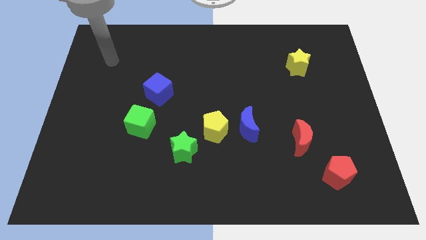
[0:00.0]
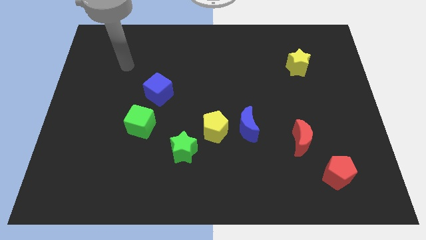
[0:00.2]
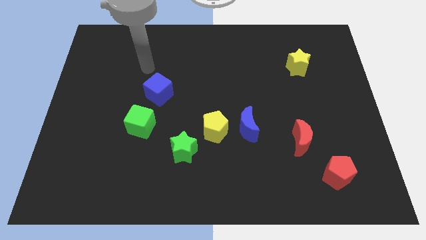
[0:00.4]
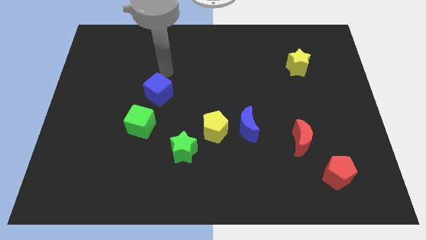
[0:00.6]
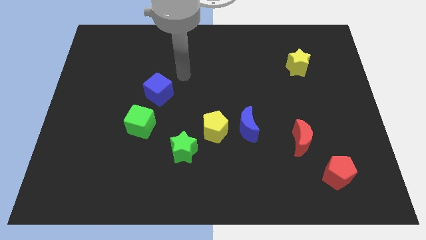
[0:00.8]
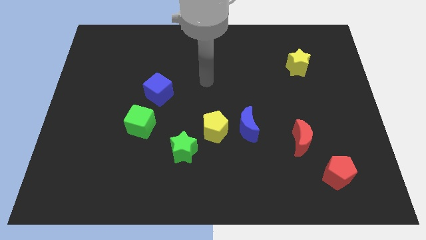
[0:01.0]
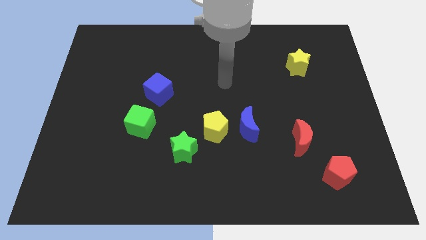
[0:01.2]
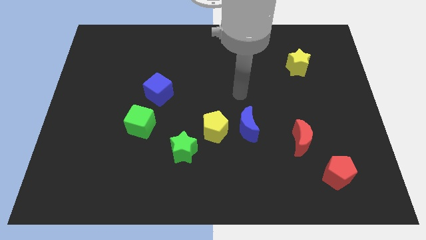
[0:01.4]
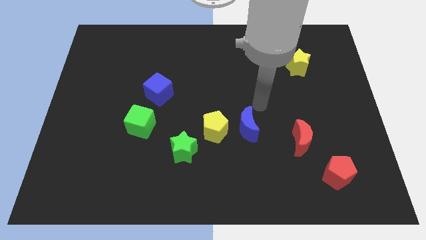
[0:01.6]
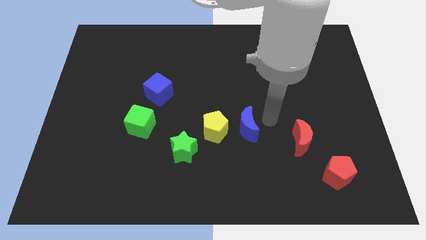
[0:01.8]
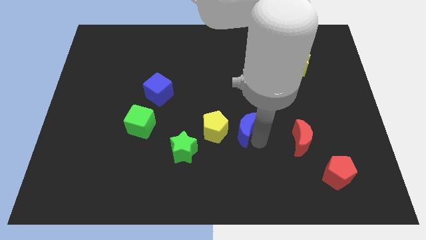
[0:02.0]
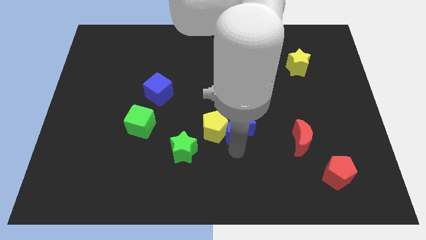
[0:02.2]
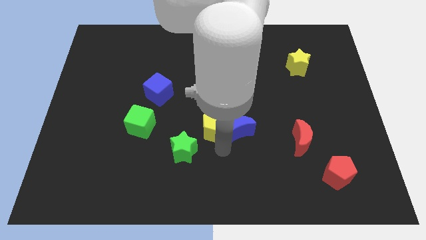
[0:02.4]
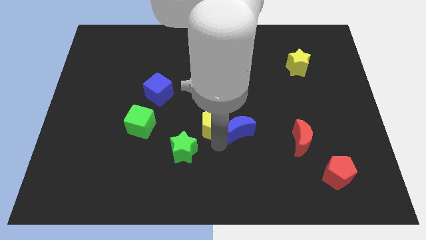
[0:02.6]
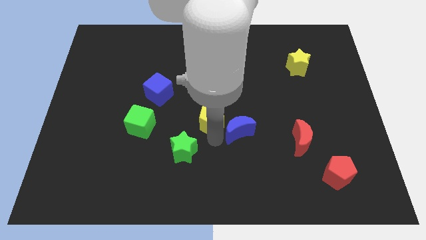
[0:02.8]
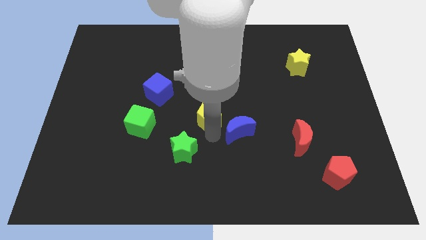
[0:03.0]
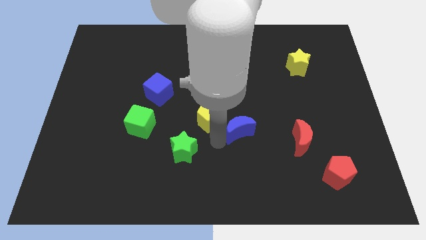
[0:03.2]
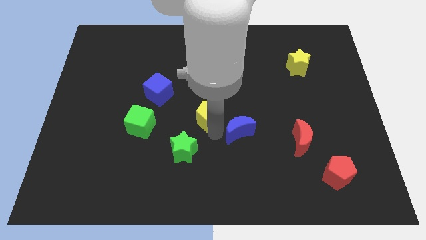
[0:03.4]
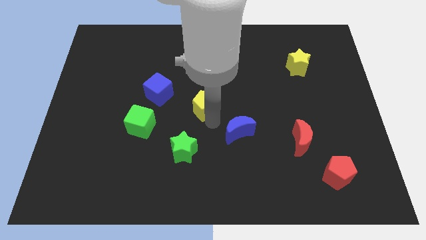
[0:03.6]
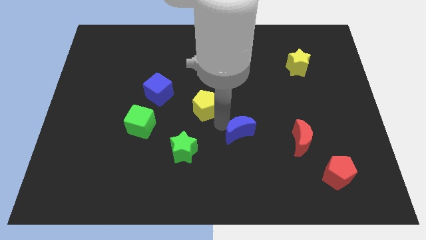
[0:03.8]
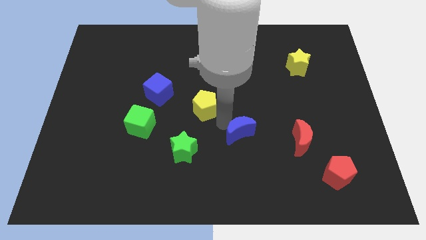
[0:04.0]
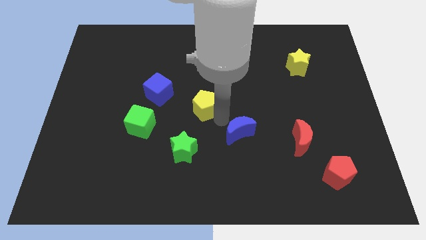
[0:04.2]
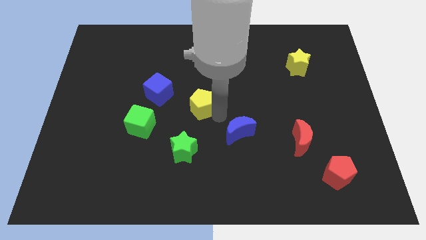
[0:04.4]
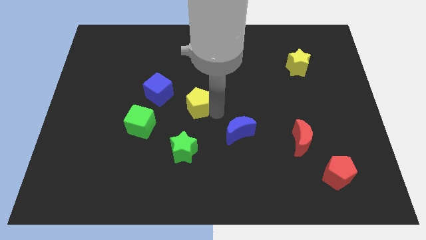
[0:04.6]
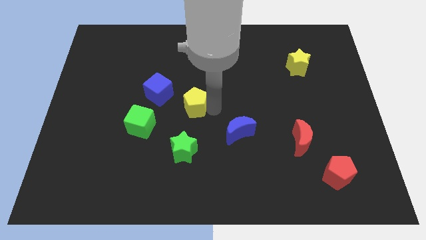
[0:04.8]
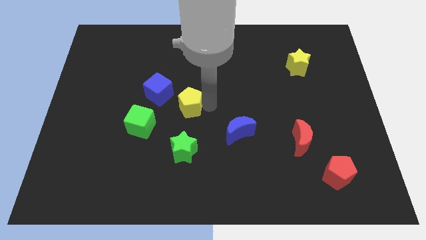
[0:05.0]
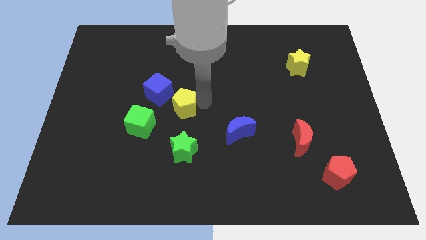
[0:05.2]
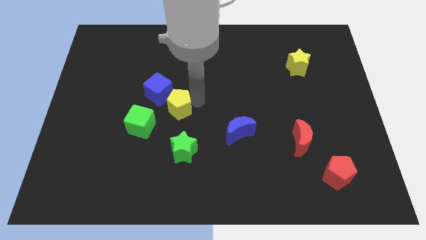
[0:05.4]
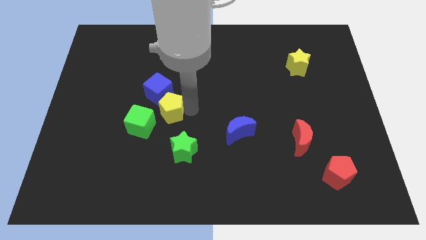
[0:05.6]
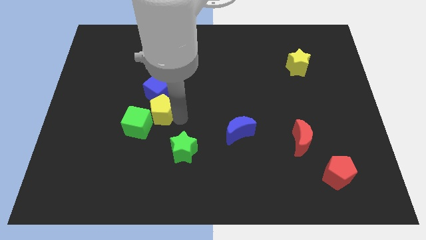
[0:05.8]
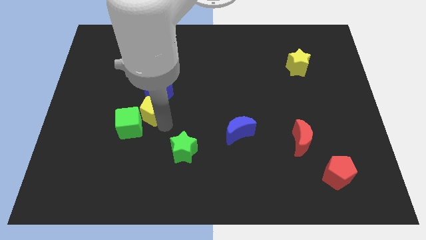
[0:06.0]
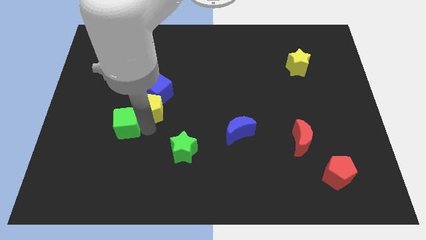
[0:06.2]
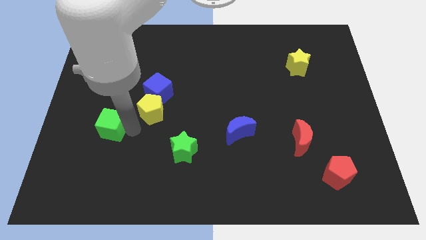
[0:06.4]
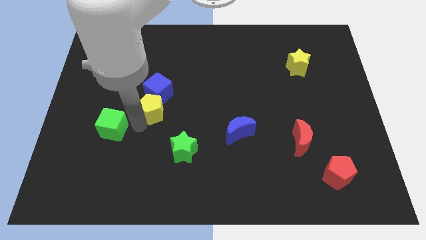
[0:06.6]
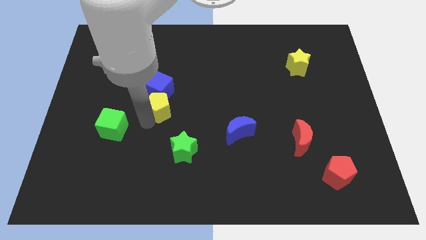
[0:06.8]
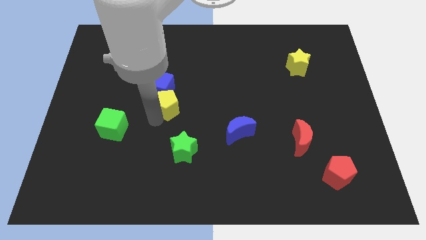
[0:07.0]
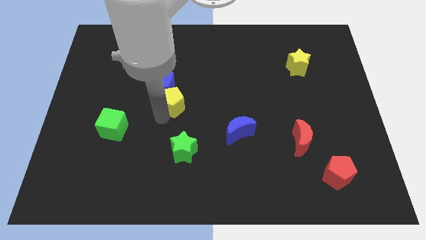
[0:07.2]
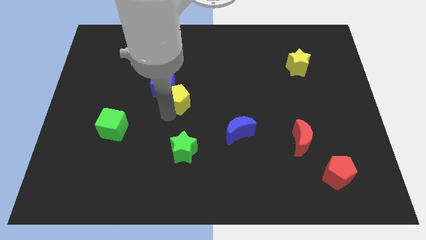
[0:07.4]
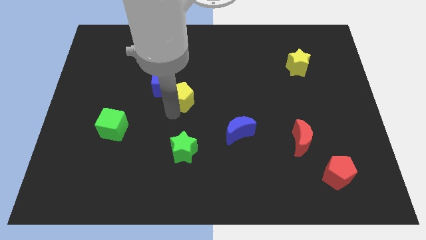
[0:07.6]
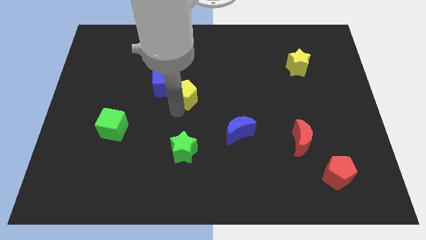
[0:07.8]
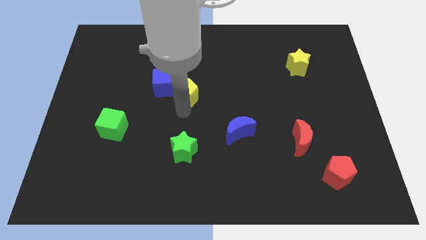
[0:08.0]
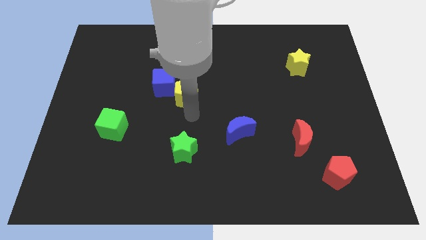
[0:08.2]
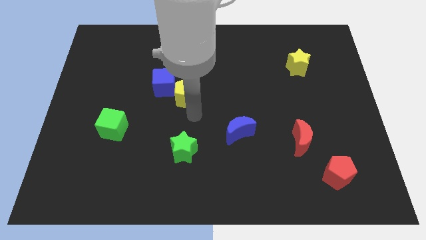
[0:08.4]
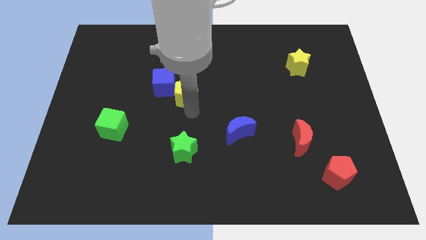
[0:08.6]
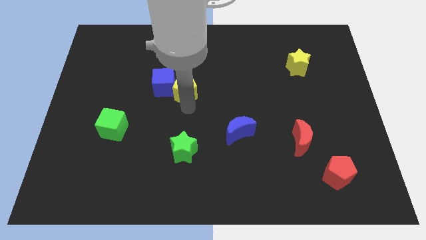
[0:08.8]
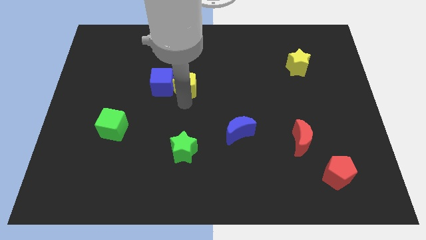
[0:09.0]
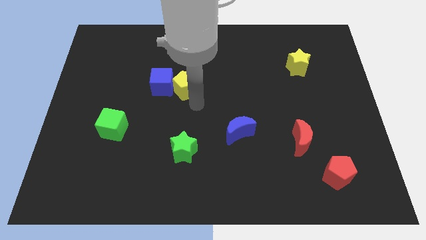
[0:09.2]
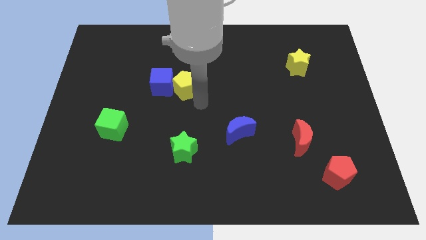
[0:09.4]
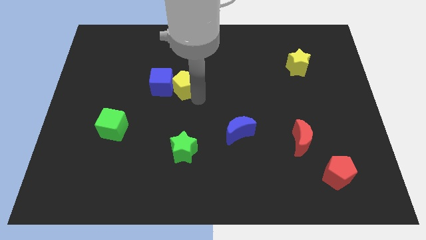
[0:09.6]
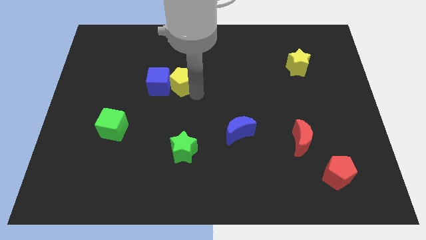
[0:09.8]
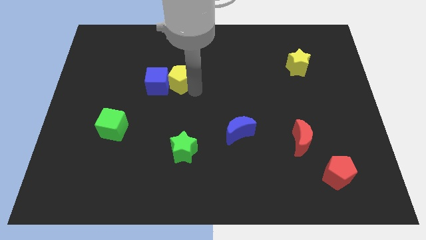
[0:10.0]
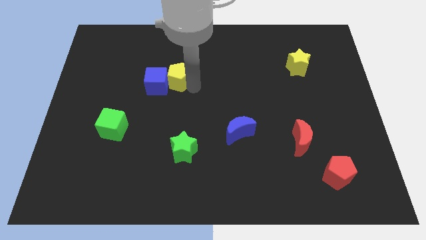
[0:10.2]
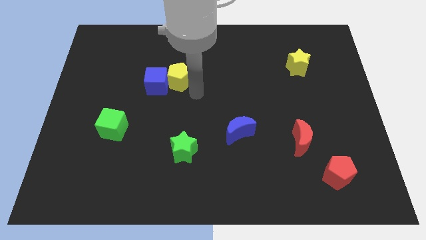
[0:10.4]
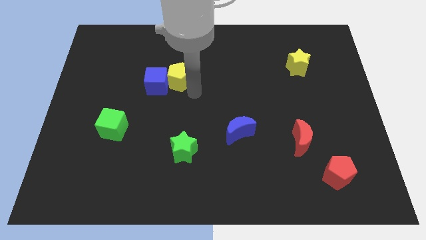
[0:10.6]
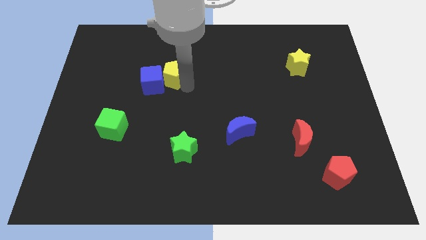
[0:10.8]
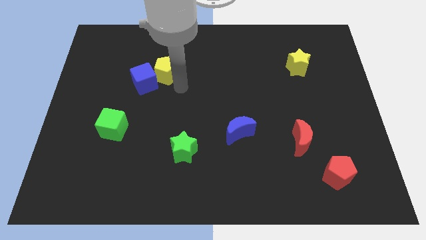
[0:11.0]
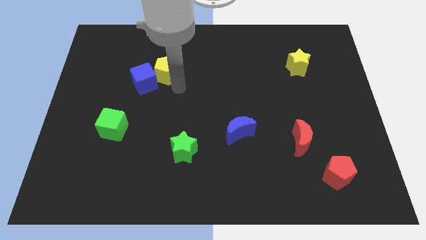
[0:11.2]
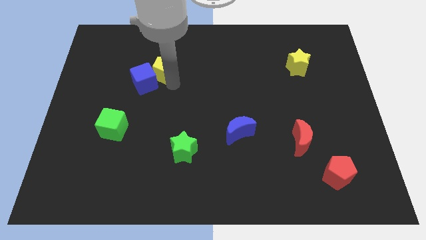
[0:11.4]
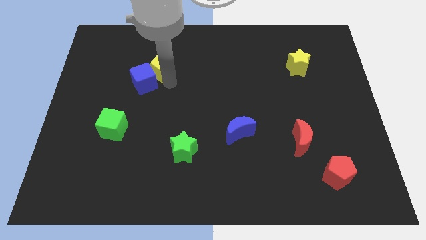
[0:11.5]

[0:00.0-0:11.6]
slide the yellow pentagon to the top side of the blue cube

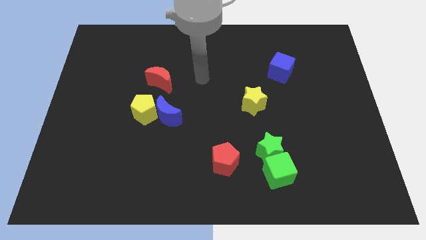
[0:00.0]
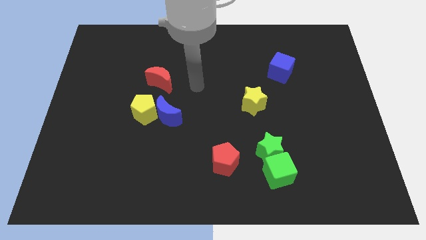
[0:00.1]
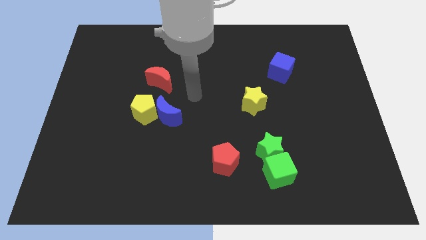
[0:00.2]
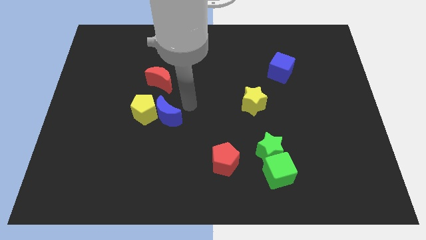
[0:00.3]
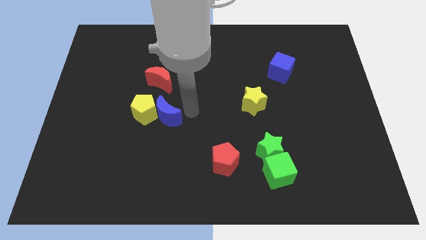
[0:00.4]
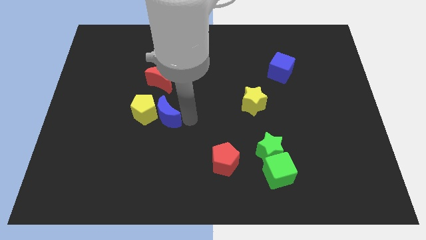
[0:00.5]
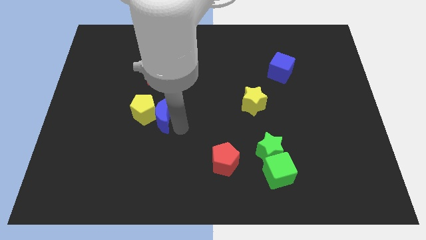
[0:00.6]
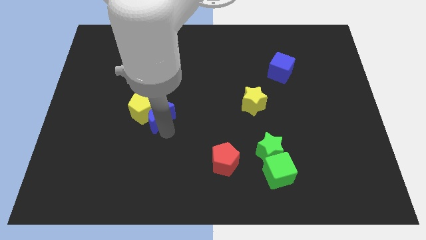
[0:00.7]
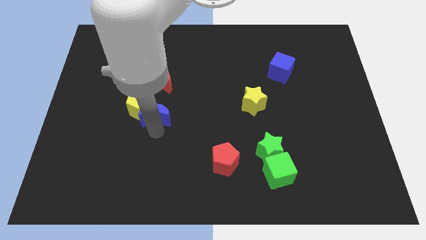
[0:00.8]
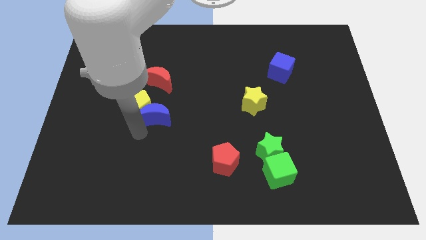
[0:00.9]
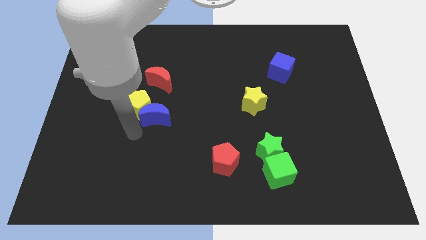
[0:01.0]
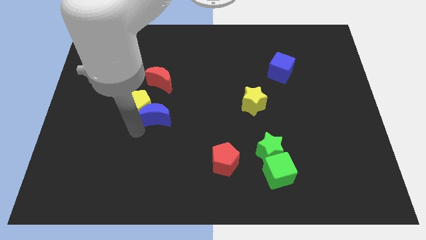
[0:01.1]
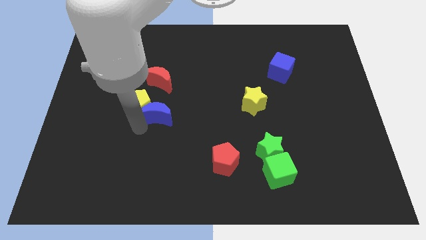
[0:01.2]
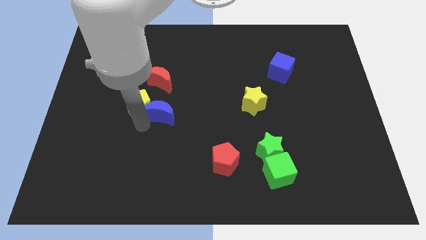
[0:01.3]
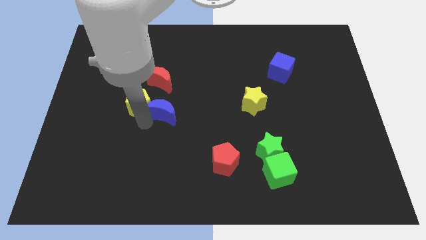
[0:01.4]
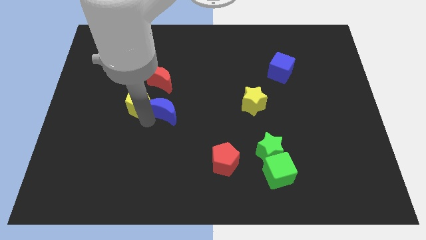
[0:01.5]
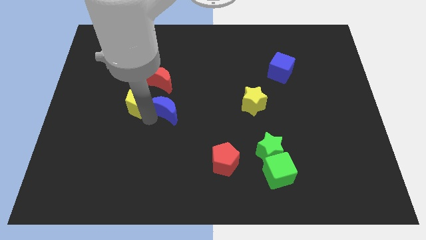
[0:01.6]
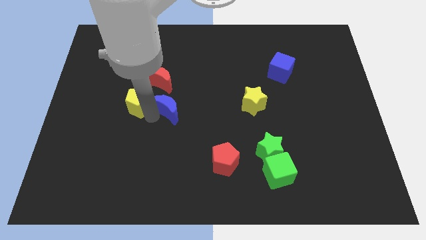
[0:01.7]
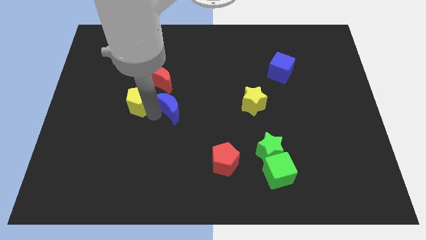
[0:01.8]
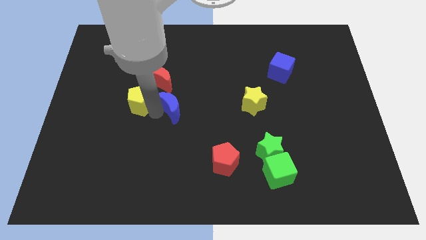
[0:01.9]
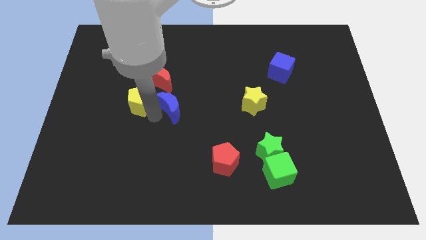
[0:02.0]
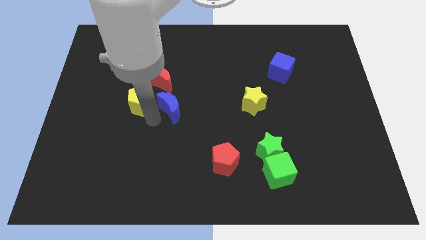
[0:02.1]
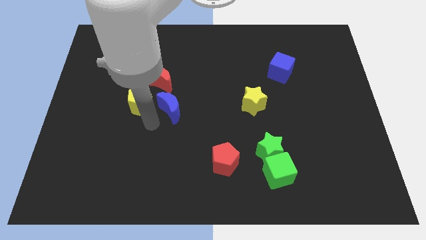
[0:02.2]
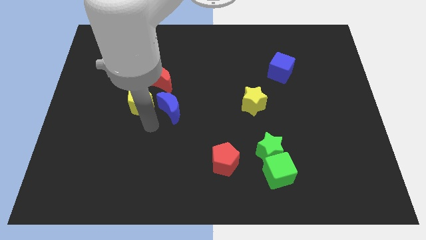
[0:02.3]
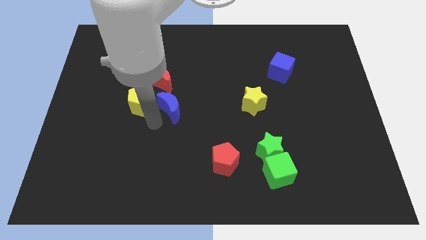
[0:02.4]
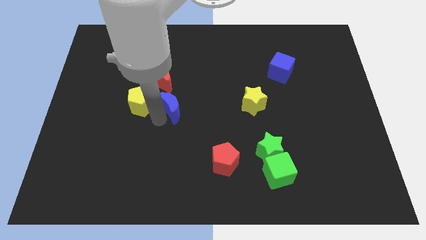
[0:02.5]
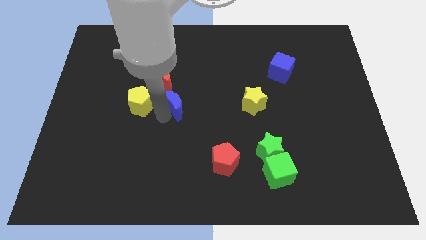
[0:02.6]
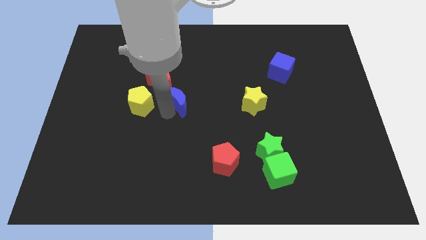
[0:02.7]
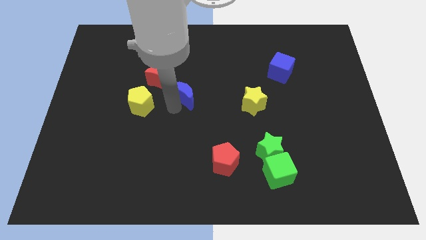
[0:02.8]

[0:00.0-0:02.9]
slide the blue moon to the right of the red moon
